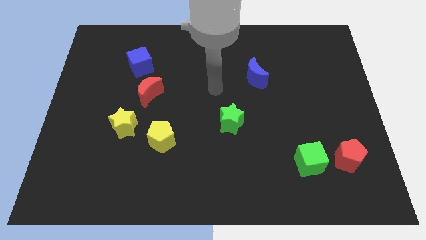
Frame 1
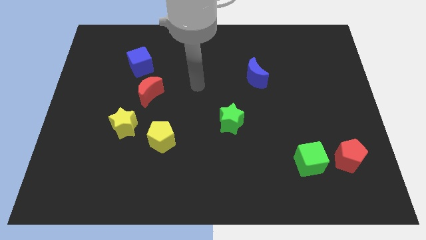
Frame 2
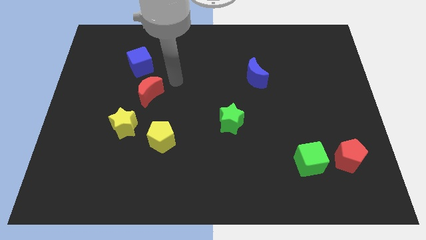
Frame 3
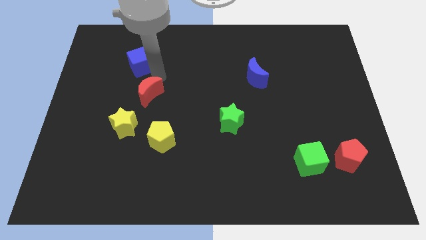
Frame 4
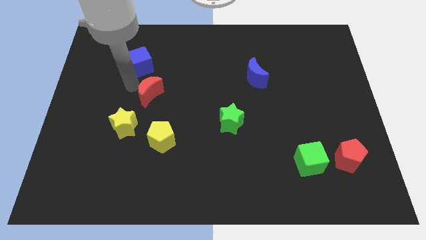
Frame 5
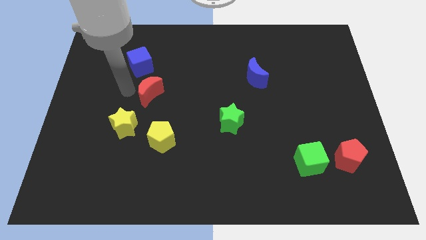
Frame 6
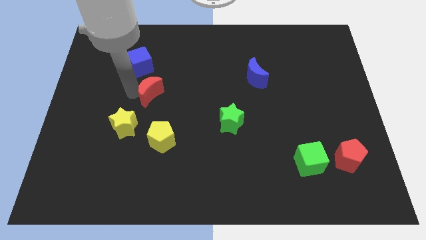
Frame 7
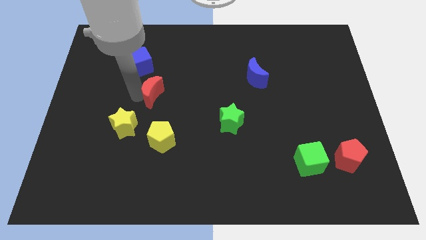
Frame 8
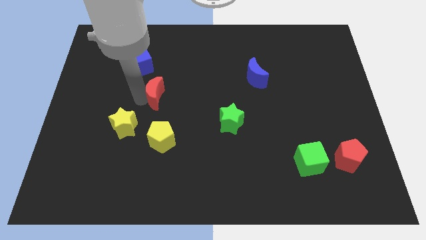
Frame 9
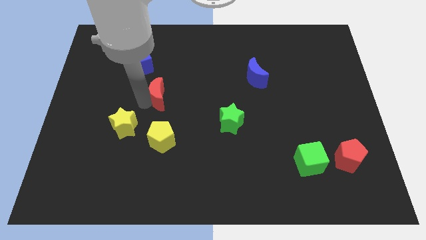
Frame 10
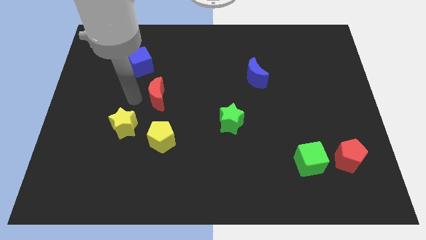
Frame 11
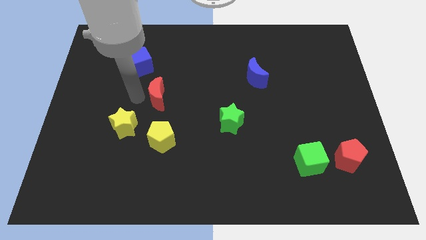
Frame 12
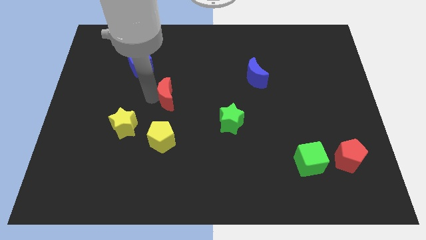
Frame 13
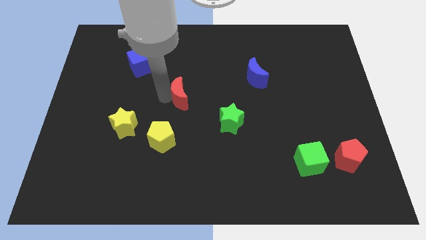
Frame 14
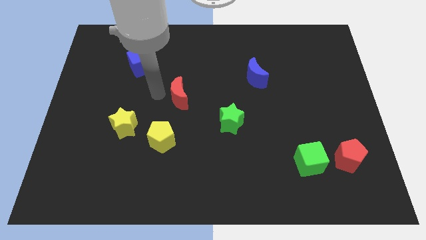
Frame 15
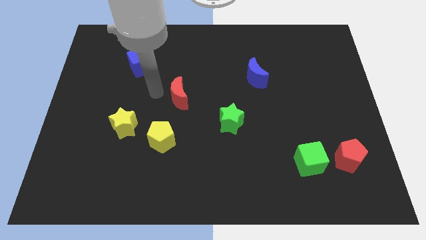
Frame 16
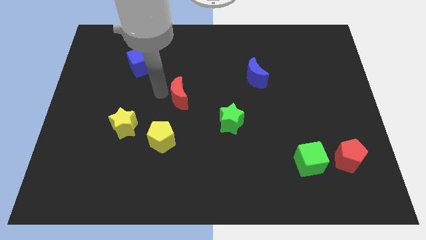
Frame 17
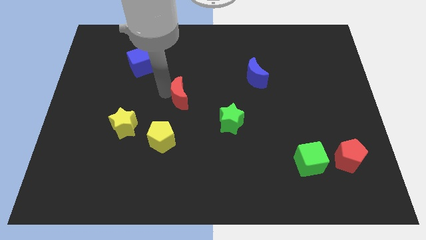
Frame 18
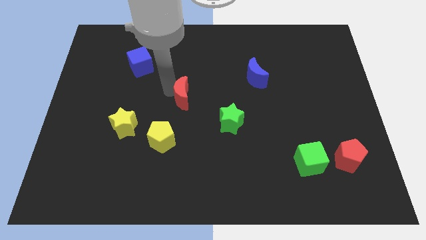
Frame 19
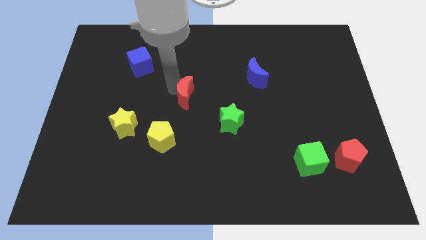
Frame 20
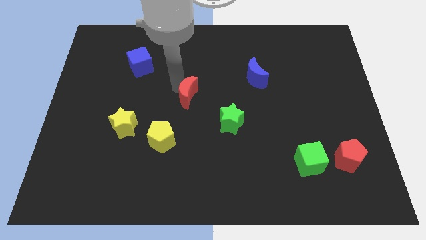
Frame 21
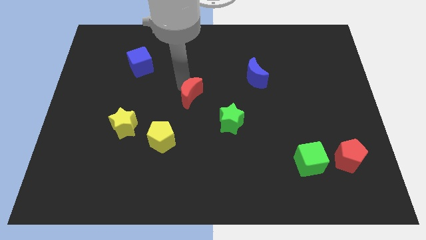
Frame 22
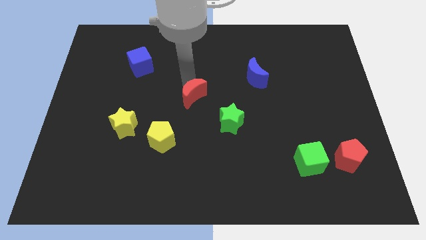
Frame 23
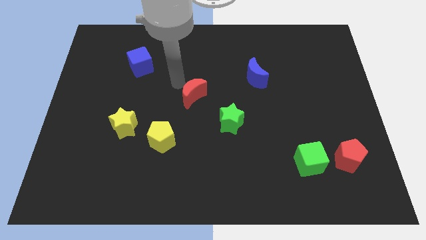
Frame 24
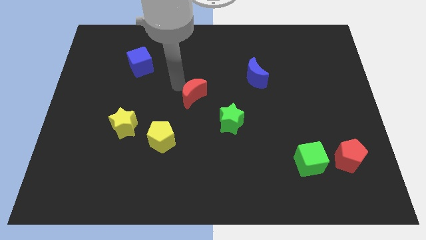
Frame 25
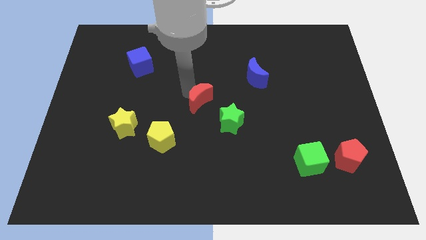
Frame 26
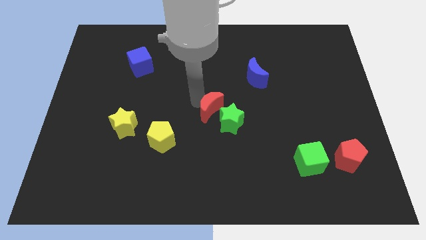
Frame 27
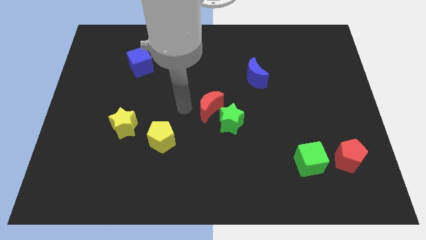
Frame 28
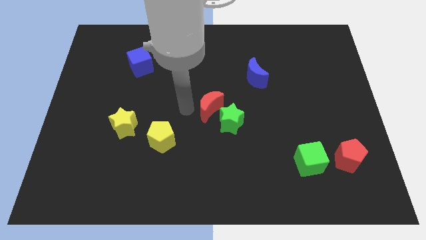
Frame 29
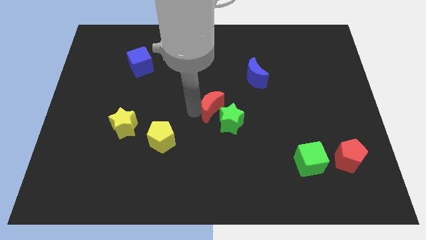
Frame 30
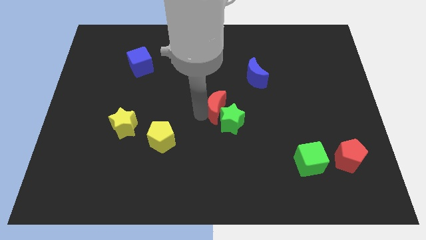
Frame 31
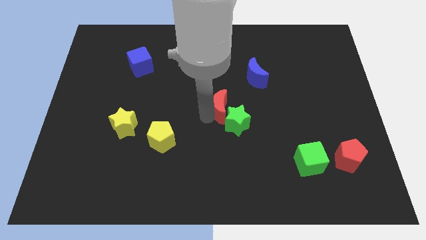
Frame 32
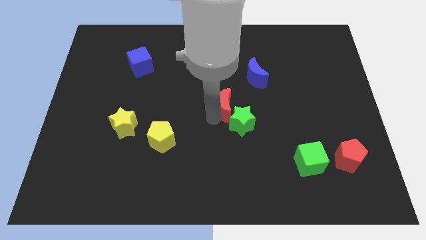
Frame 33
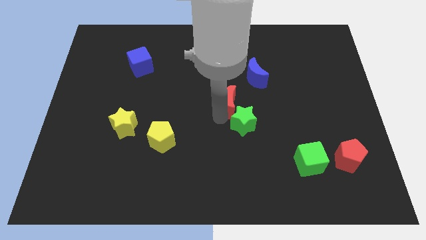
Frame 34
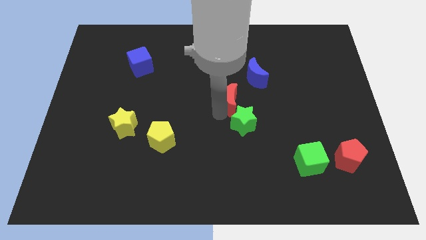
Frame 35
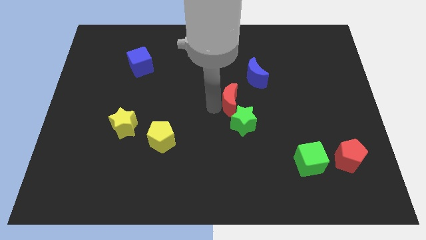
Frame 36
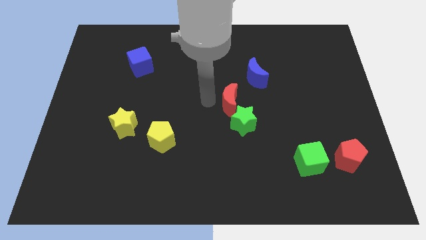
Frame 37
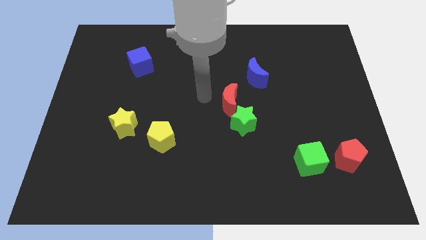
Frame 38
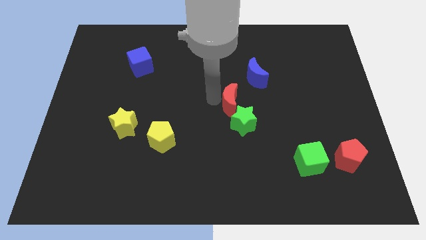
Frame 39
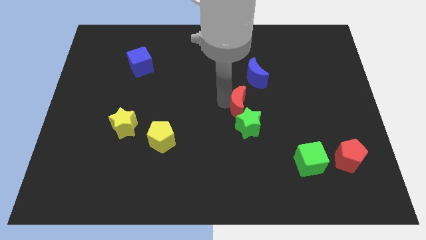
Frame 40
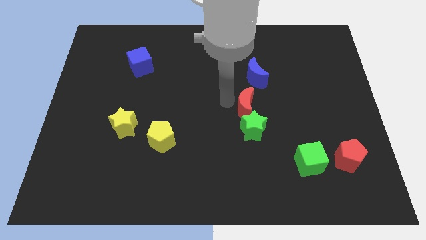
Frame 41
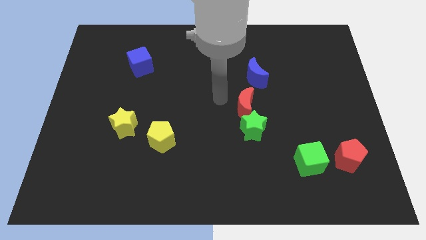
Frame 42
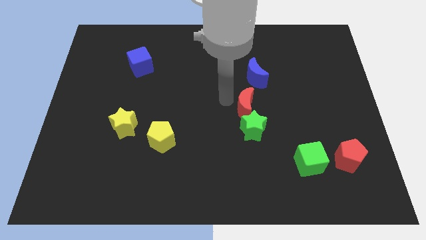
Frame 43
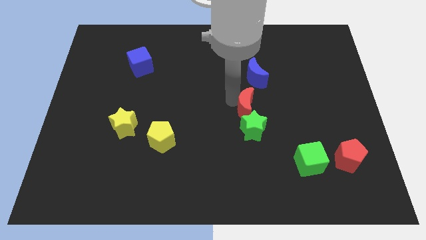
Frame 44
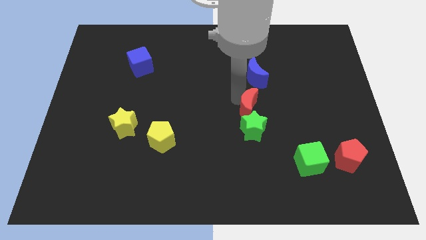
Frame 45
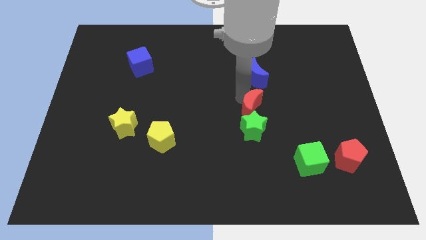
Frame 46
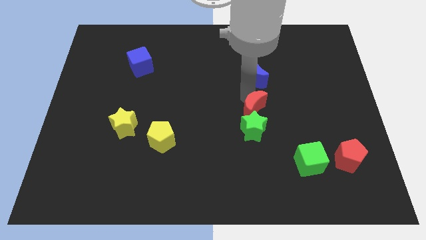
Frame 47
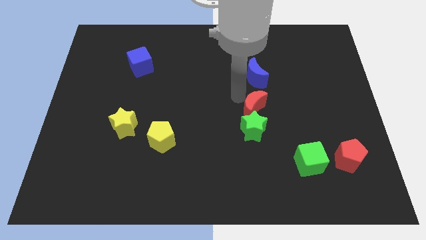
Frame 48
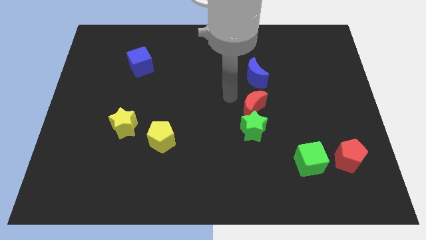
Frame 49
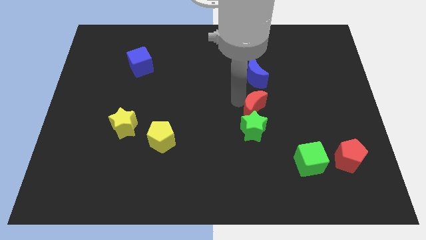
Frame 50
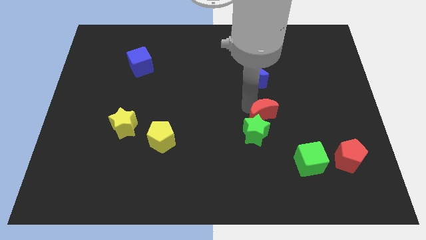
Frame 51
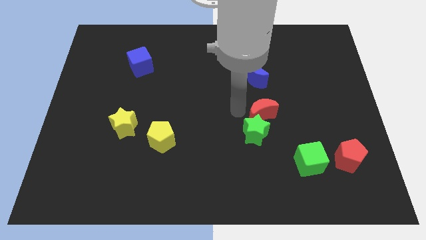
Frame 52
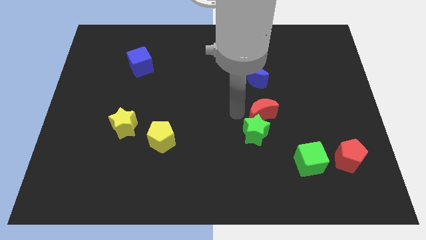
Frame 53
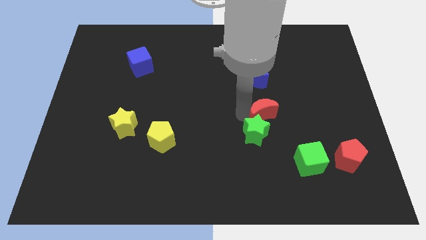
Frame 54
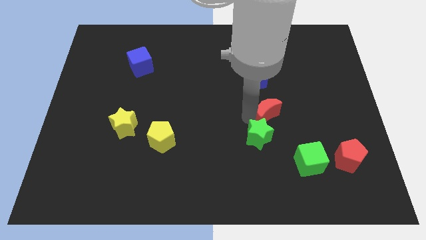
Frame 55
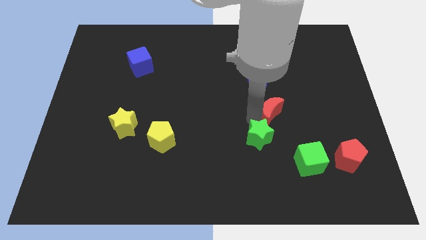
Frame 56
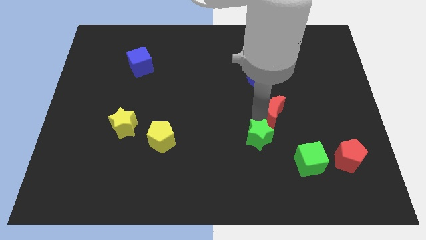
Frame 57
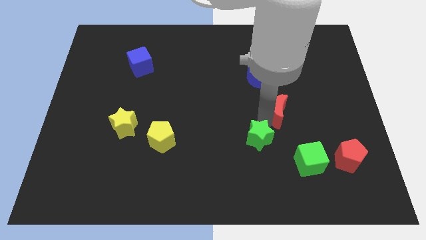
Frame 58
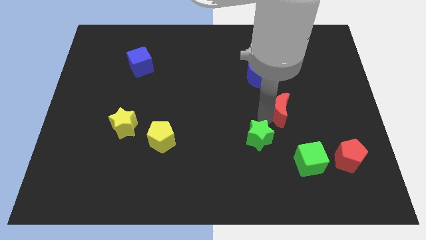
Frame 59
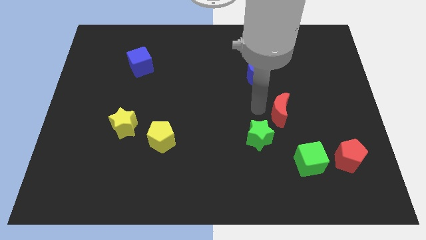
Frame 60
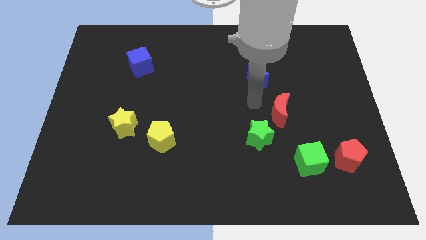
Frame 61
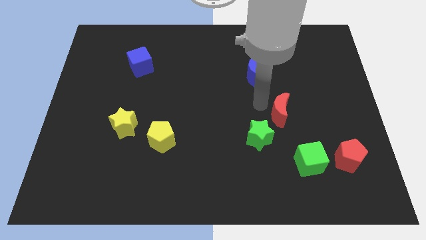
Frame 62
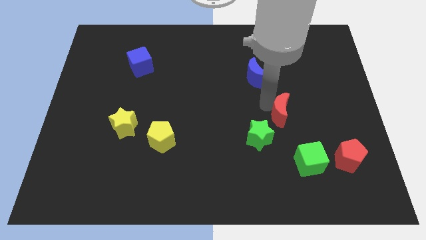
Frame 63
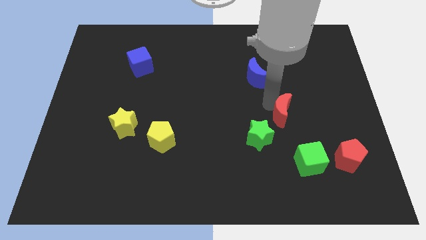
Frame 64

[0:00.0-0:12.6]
push the red moon to the top of the green cube

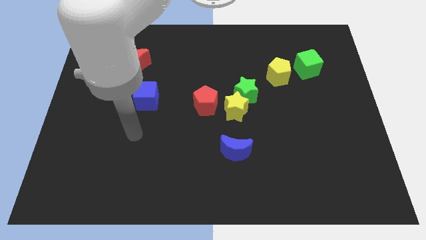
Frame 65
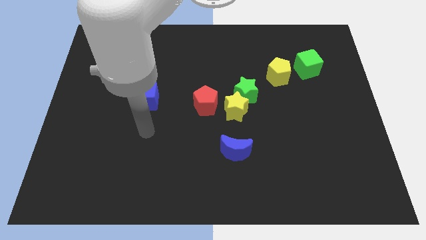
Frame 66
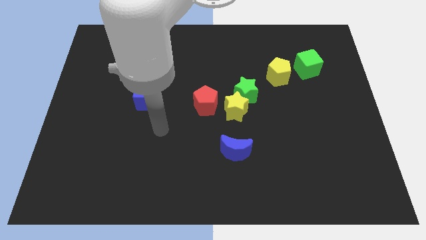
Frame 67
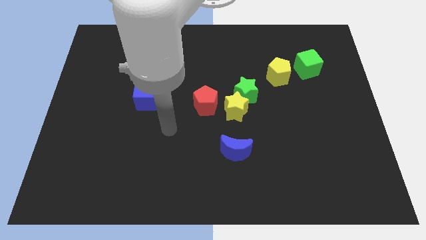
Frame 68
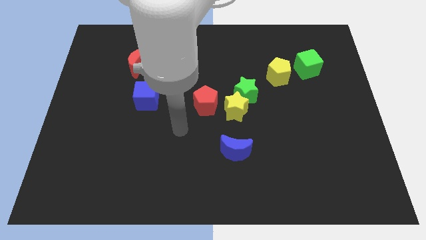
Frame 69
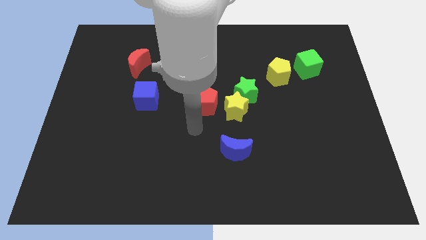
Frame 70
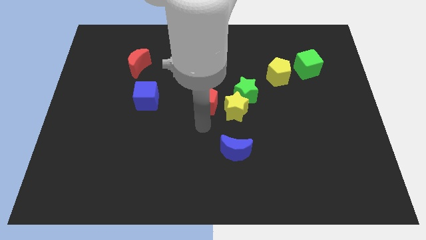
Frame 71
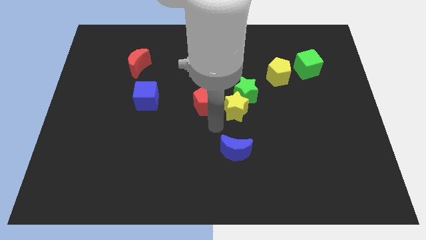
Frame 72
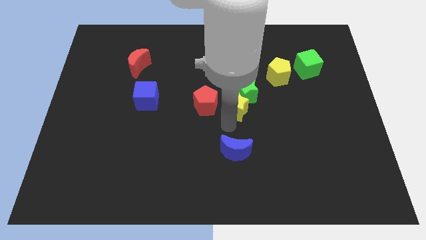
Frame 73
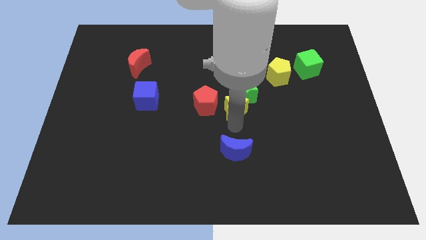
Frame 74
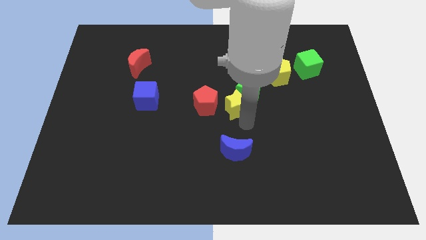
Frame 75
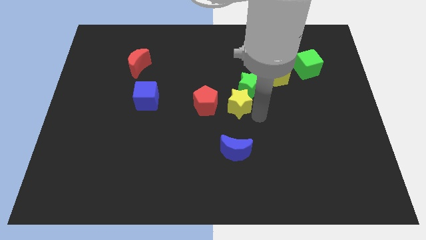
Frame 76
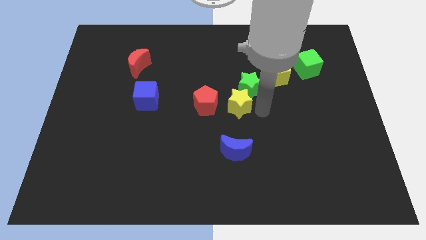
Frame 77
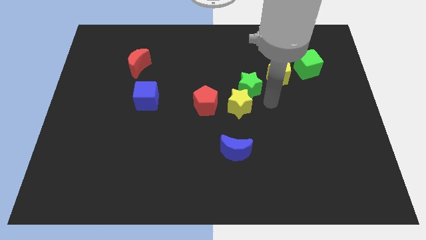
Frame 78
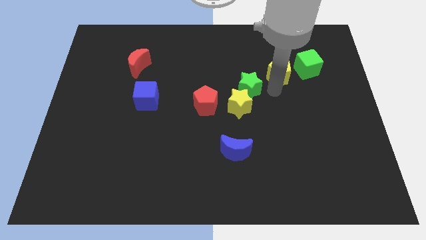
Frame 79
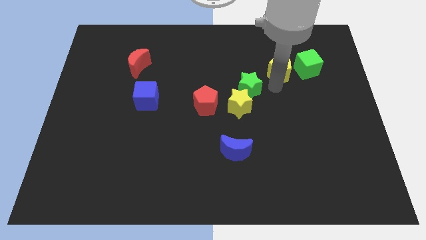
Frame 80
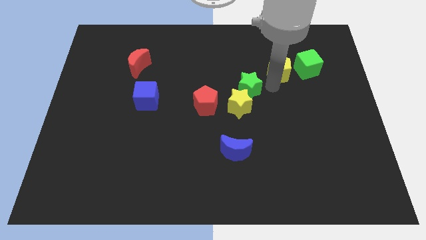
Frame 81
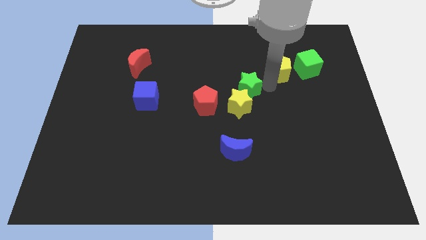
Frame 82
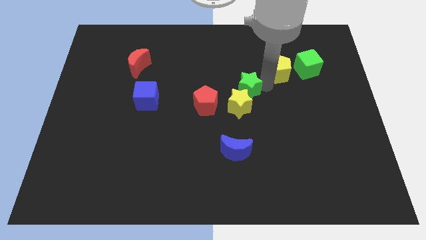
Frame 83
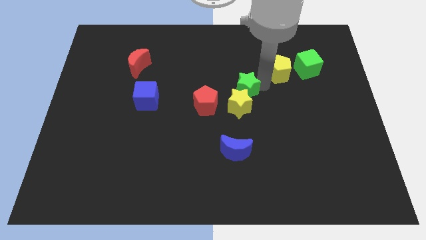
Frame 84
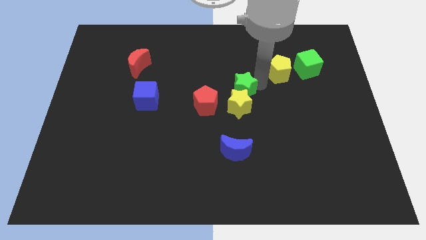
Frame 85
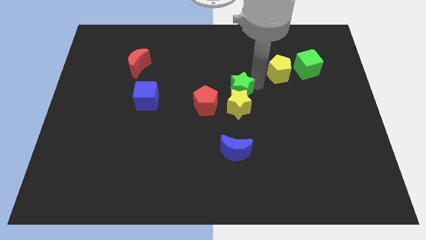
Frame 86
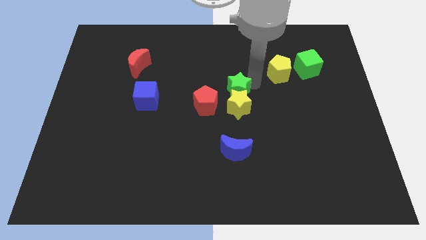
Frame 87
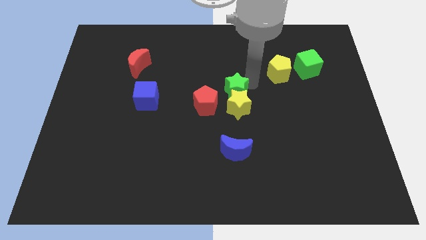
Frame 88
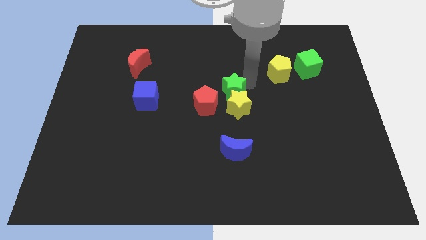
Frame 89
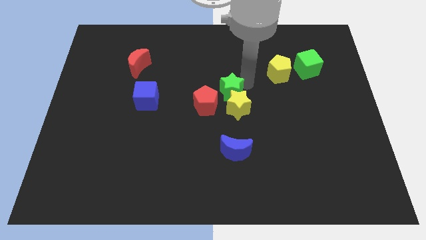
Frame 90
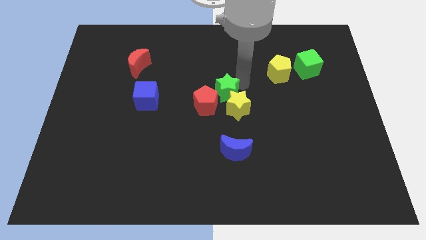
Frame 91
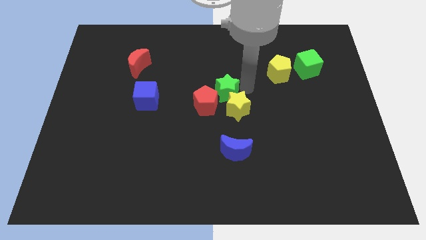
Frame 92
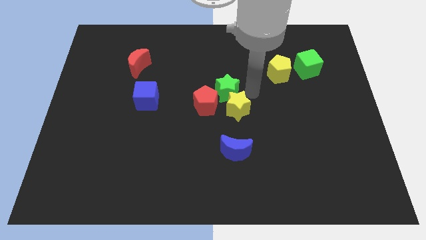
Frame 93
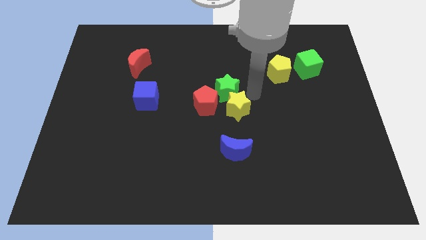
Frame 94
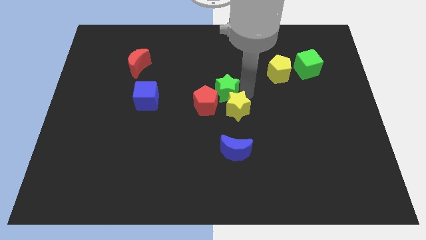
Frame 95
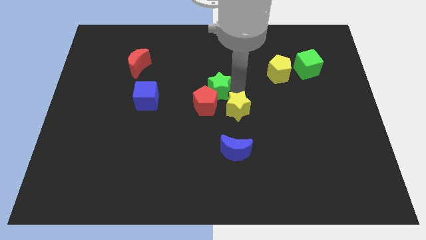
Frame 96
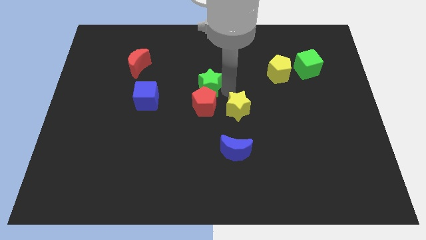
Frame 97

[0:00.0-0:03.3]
move the green star to the top left of the red pentagon
